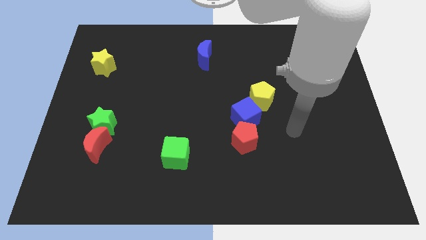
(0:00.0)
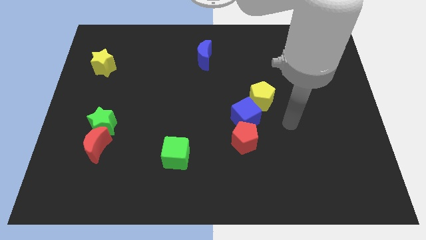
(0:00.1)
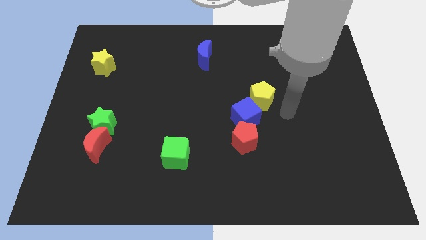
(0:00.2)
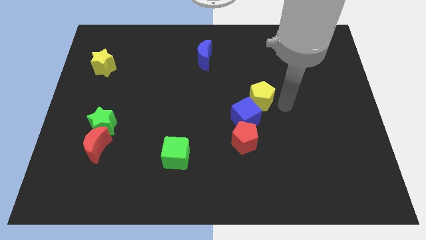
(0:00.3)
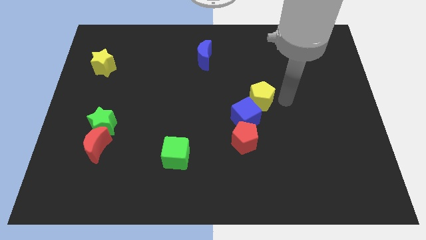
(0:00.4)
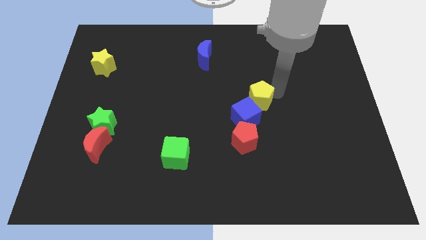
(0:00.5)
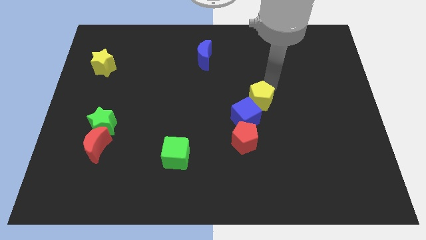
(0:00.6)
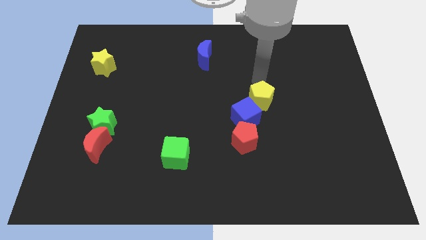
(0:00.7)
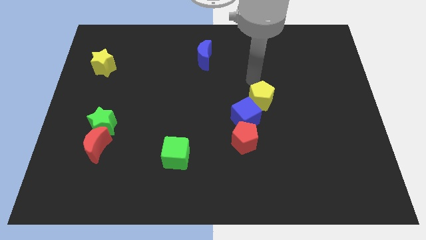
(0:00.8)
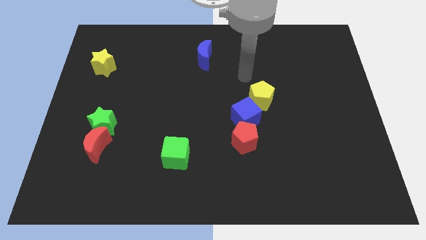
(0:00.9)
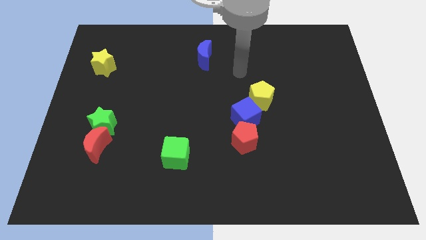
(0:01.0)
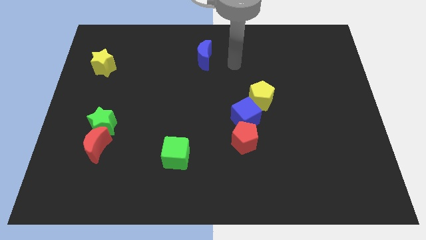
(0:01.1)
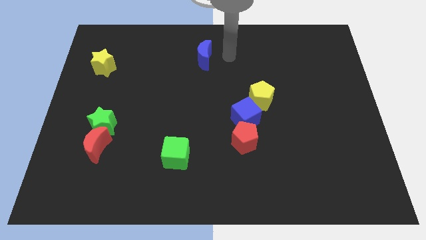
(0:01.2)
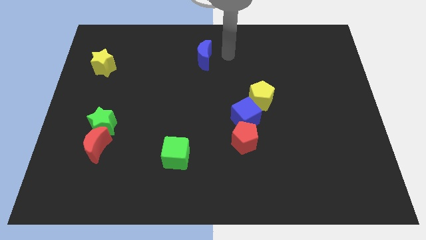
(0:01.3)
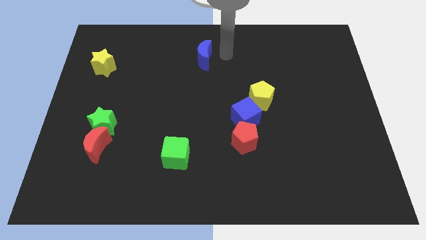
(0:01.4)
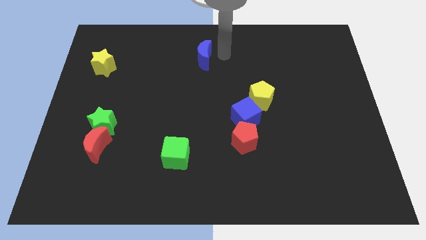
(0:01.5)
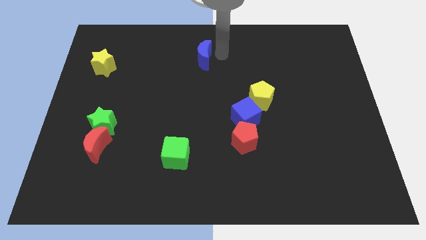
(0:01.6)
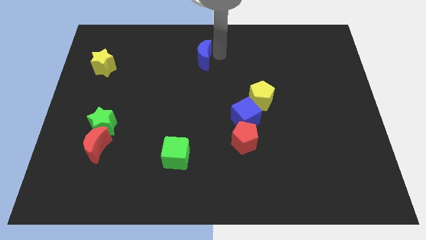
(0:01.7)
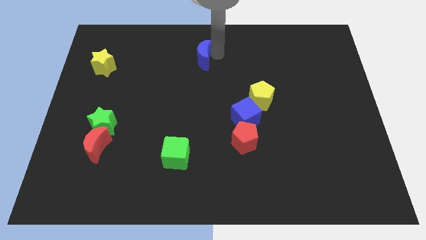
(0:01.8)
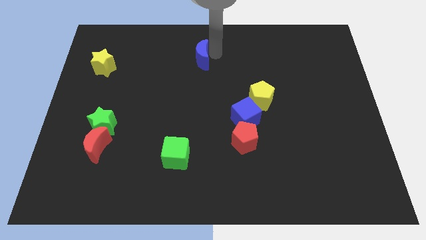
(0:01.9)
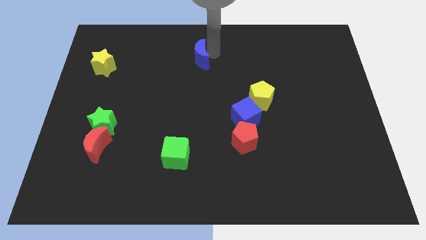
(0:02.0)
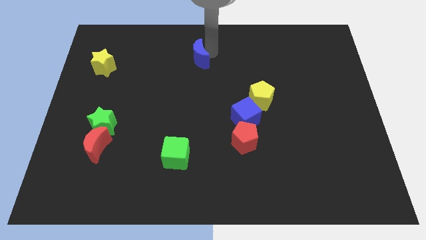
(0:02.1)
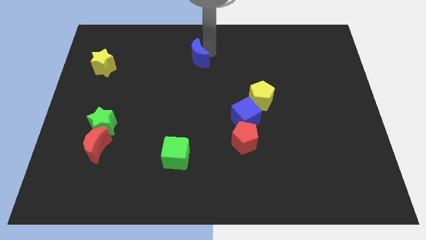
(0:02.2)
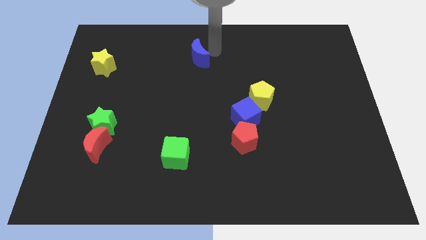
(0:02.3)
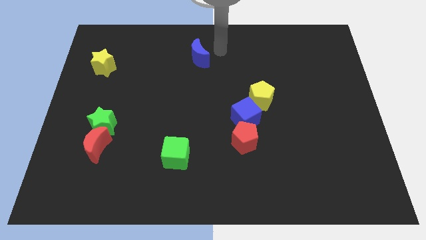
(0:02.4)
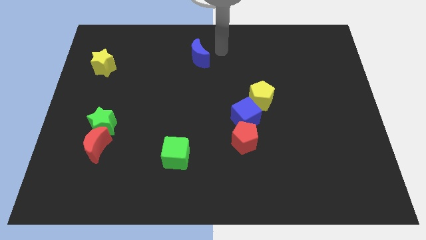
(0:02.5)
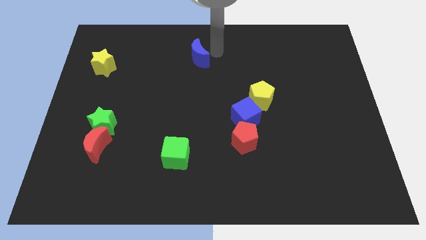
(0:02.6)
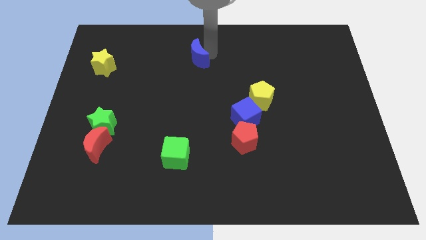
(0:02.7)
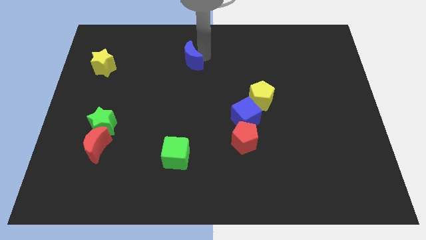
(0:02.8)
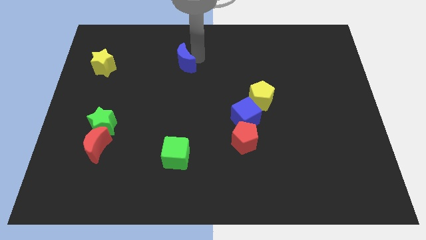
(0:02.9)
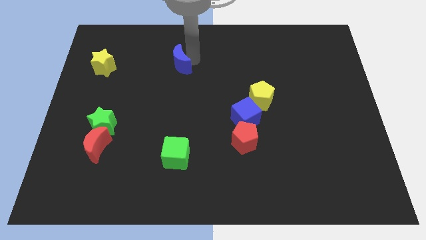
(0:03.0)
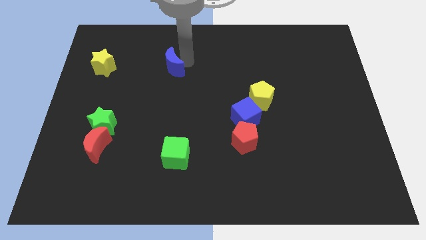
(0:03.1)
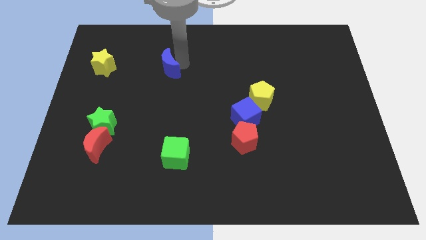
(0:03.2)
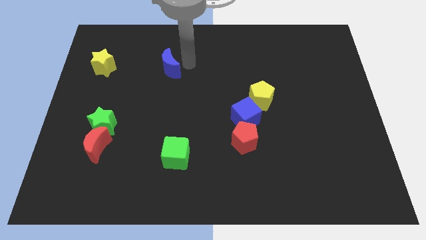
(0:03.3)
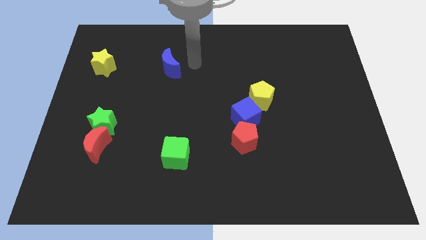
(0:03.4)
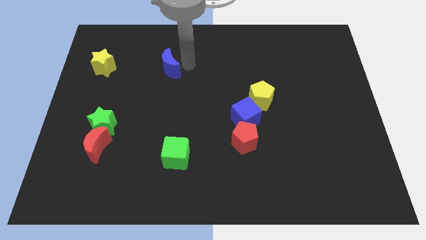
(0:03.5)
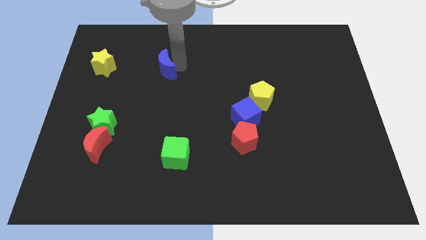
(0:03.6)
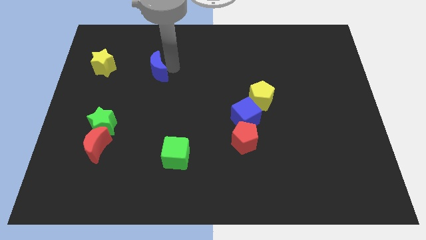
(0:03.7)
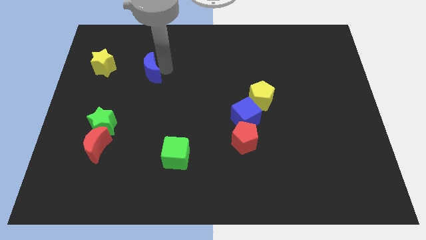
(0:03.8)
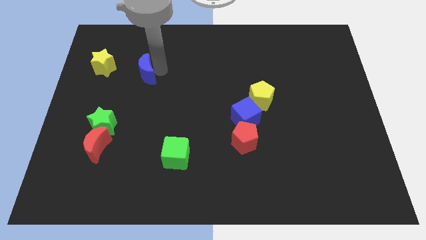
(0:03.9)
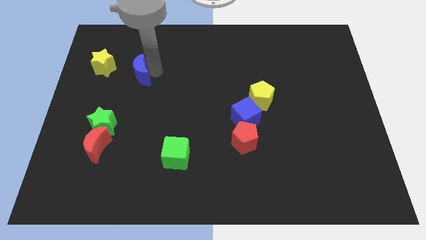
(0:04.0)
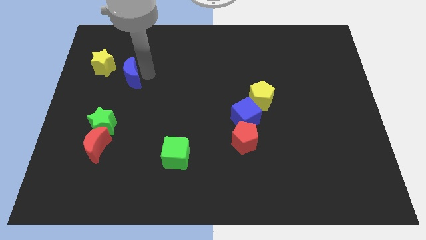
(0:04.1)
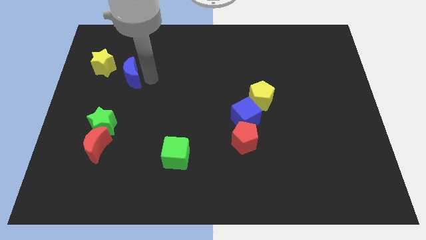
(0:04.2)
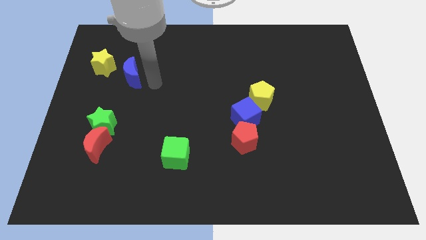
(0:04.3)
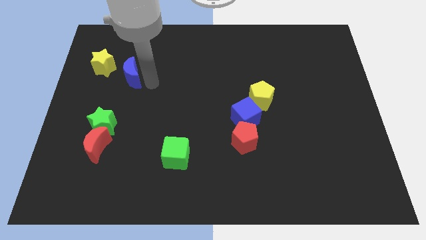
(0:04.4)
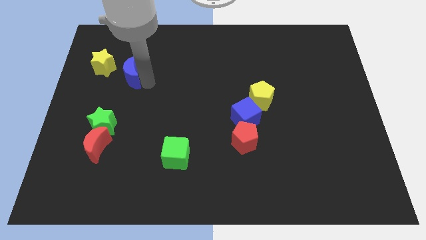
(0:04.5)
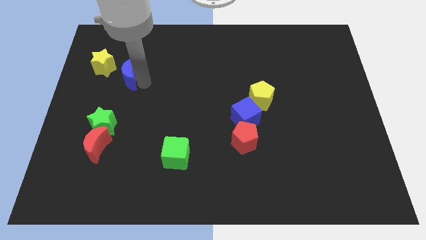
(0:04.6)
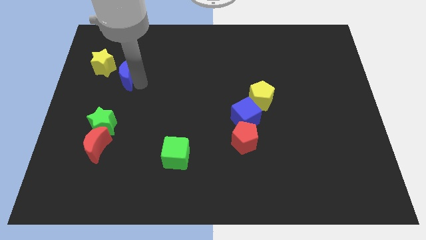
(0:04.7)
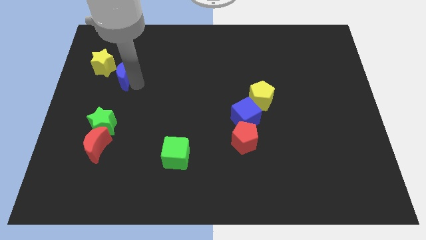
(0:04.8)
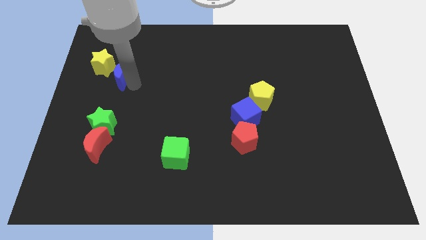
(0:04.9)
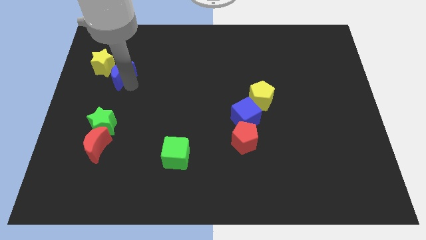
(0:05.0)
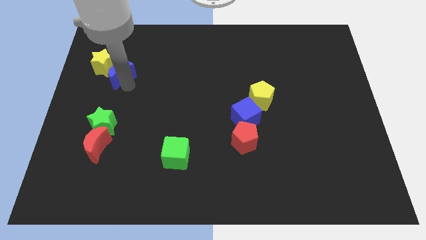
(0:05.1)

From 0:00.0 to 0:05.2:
slide the blue moon close to the yellow star

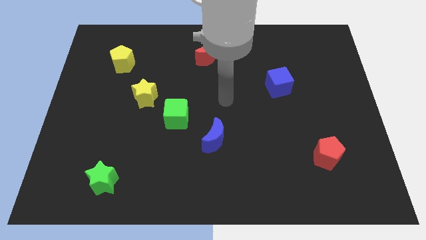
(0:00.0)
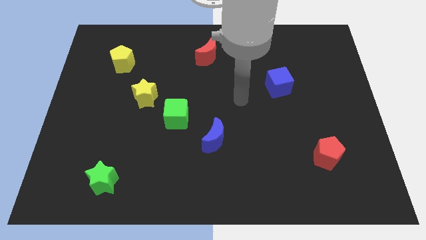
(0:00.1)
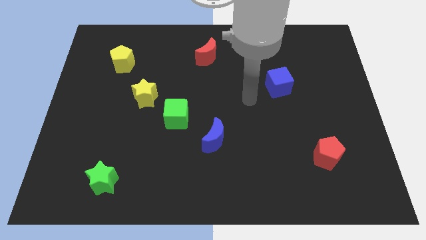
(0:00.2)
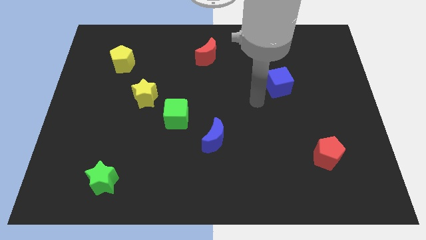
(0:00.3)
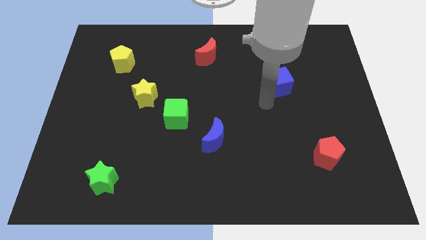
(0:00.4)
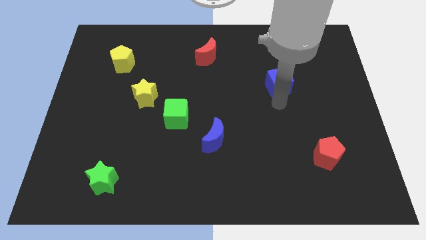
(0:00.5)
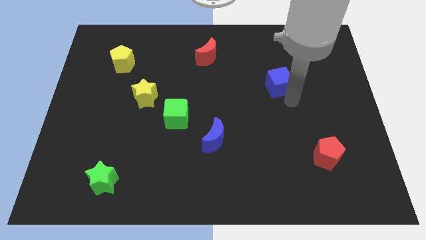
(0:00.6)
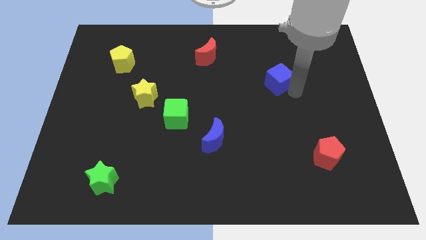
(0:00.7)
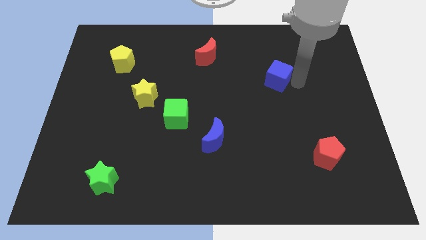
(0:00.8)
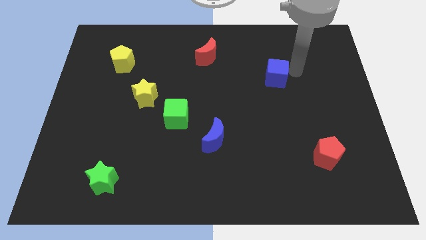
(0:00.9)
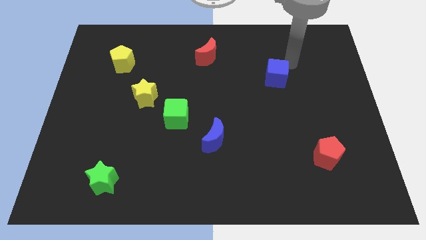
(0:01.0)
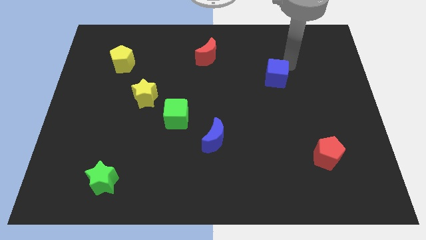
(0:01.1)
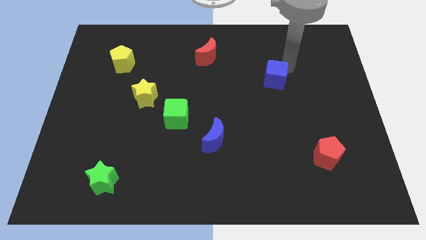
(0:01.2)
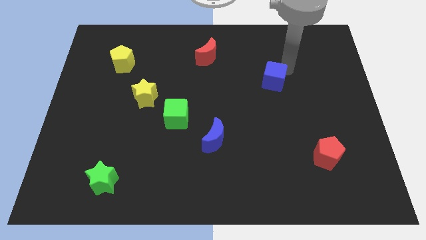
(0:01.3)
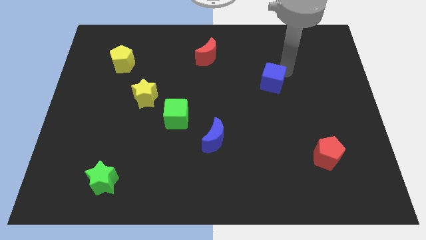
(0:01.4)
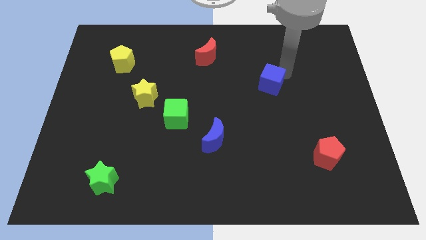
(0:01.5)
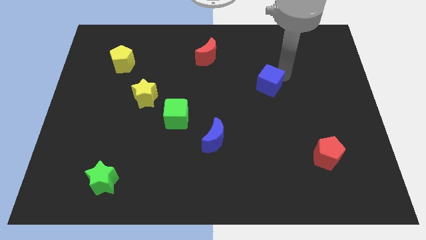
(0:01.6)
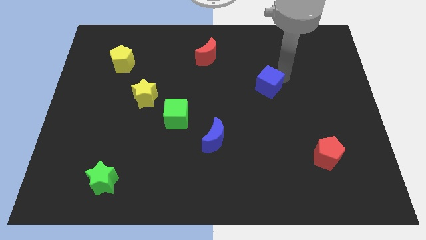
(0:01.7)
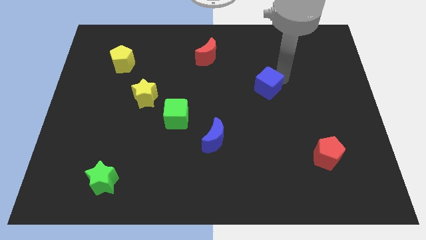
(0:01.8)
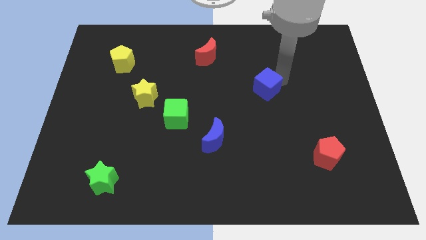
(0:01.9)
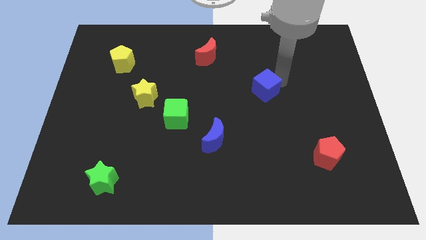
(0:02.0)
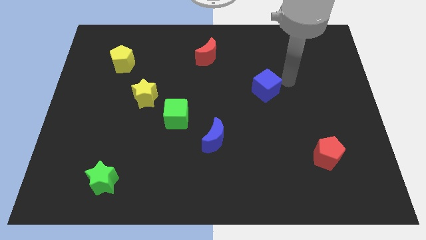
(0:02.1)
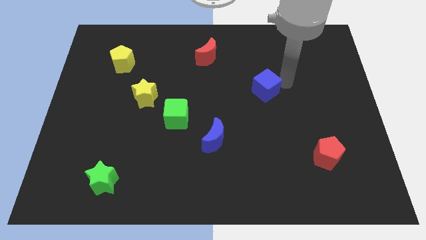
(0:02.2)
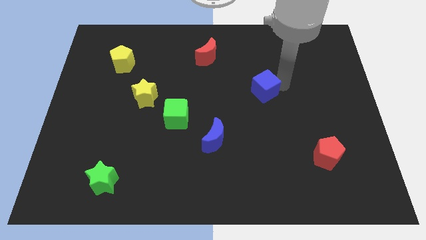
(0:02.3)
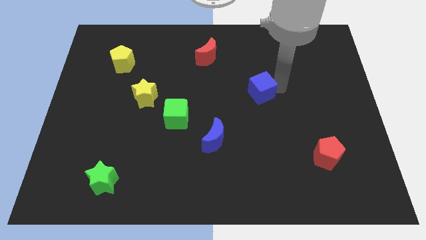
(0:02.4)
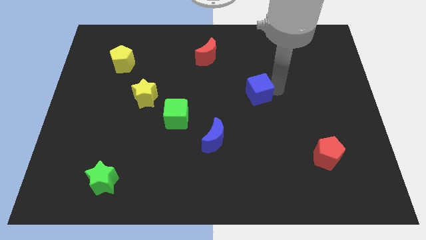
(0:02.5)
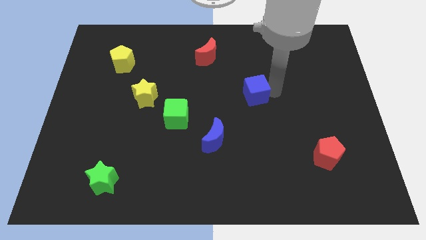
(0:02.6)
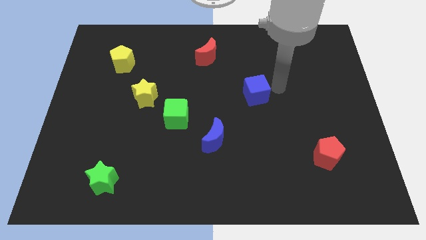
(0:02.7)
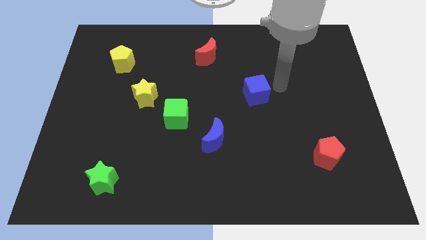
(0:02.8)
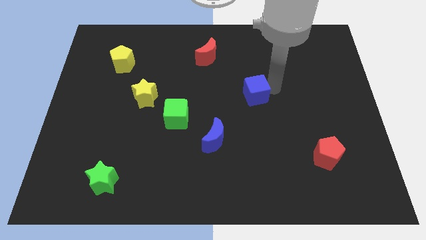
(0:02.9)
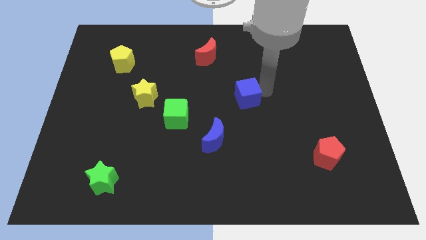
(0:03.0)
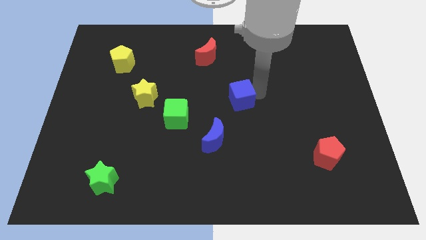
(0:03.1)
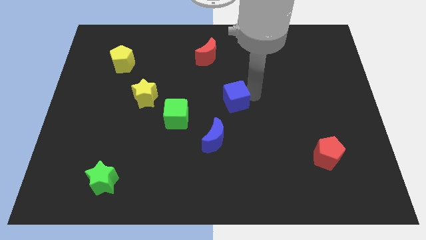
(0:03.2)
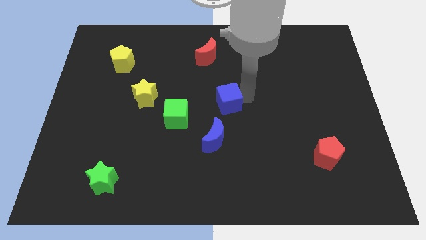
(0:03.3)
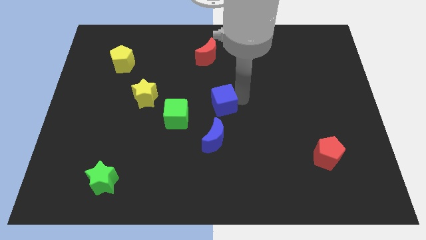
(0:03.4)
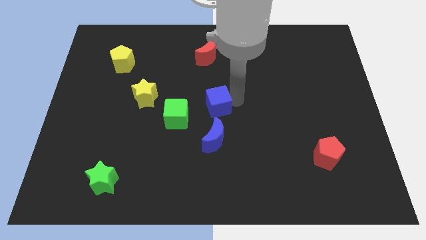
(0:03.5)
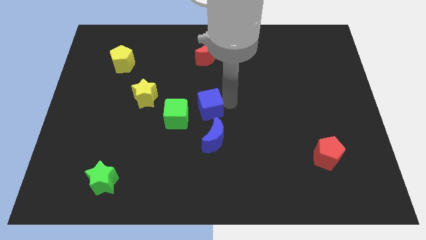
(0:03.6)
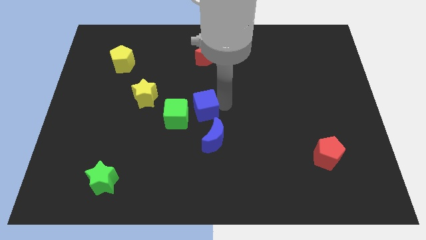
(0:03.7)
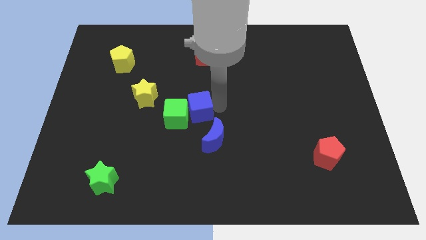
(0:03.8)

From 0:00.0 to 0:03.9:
move the blue cube next to the green cube
